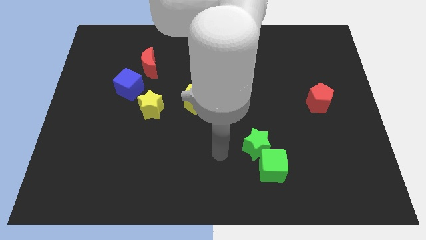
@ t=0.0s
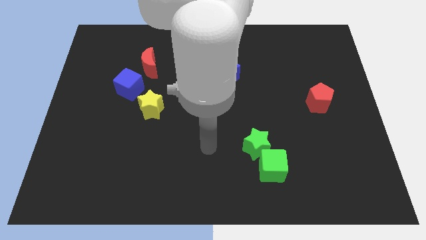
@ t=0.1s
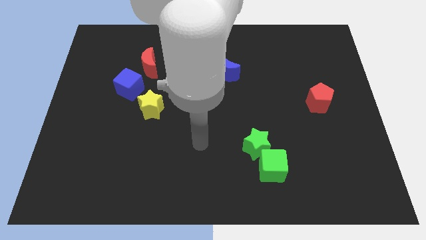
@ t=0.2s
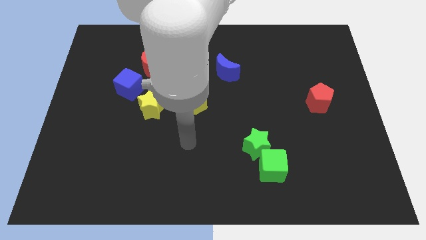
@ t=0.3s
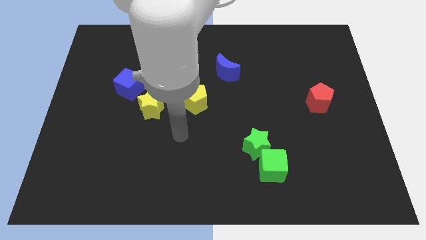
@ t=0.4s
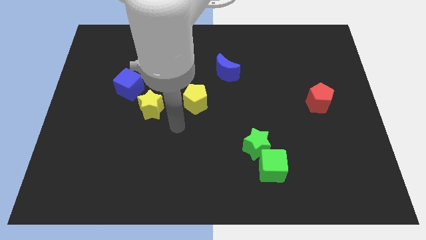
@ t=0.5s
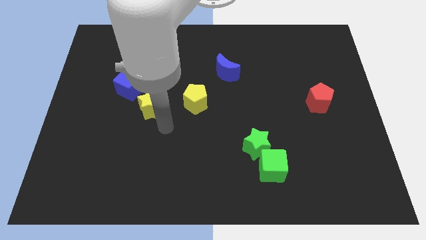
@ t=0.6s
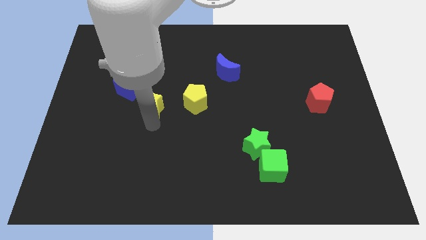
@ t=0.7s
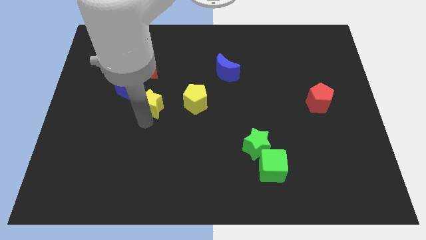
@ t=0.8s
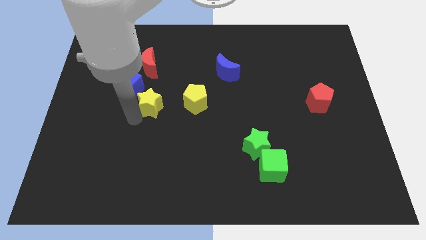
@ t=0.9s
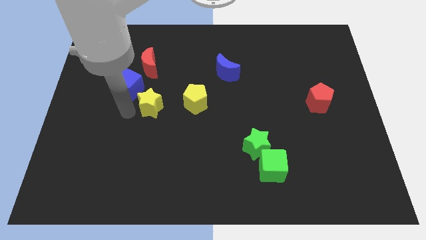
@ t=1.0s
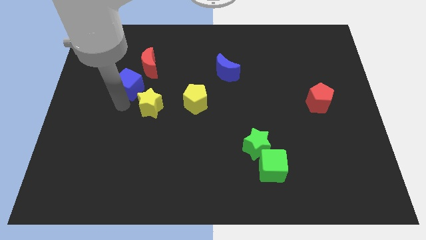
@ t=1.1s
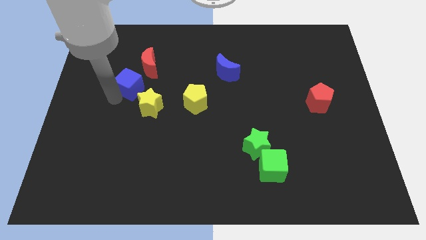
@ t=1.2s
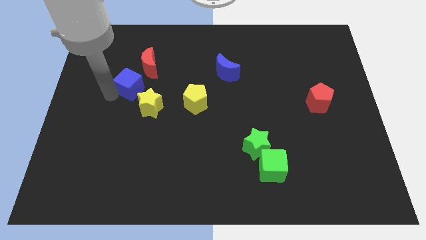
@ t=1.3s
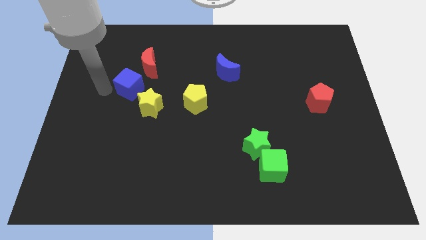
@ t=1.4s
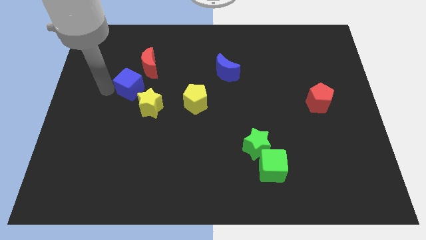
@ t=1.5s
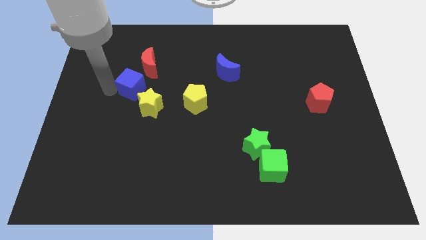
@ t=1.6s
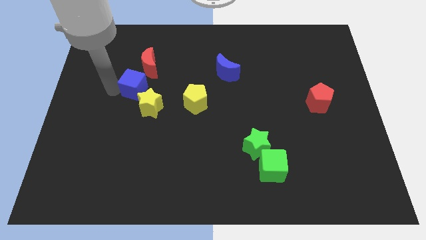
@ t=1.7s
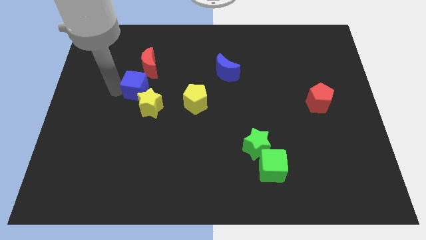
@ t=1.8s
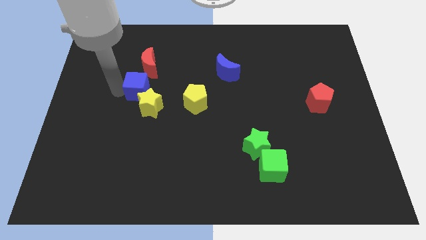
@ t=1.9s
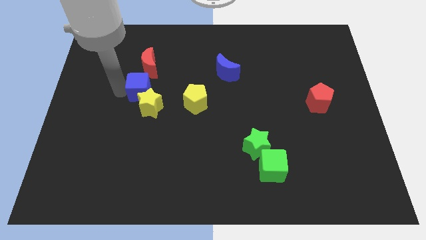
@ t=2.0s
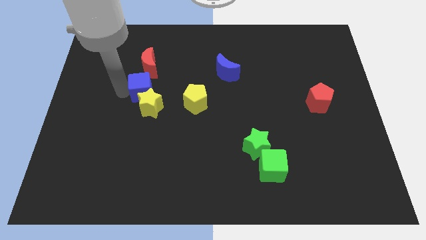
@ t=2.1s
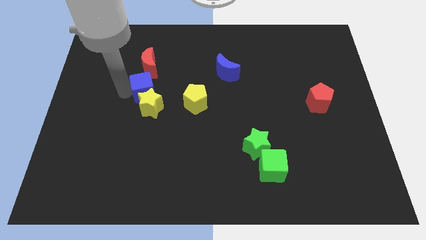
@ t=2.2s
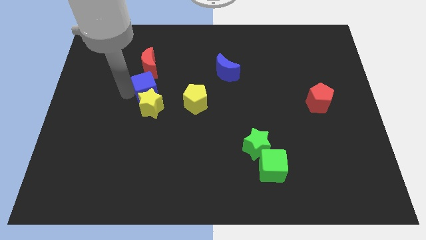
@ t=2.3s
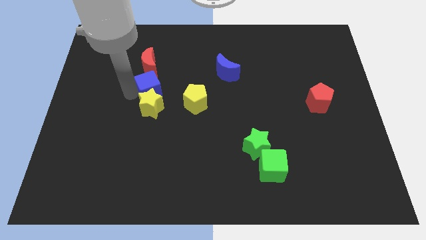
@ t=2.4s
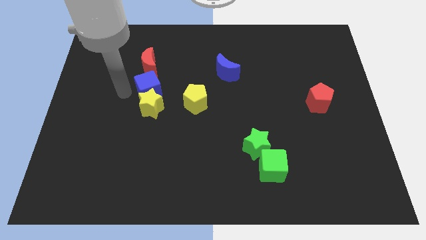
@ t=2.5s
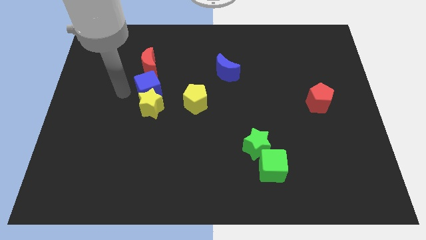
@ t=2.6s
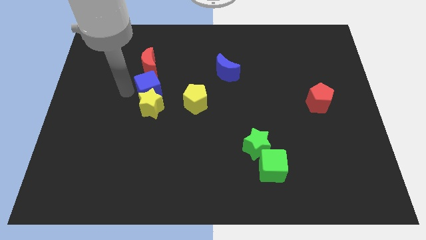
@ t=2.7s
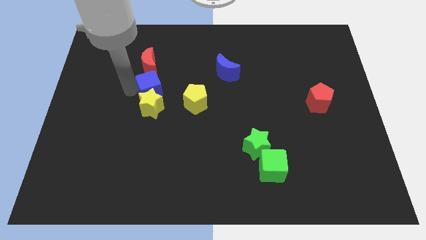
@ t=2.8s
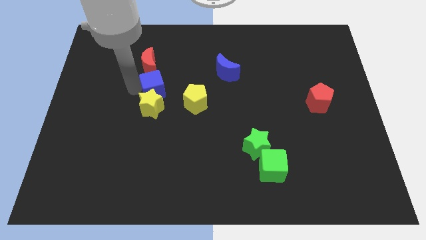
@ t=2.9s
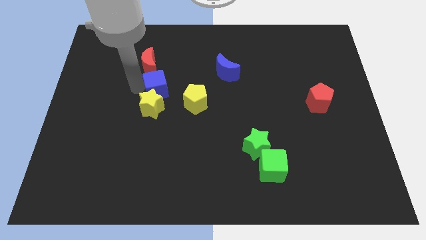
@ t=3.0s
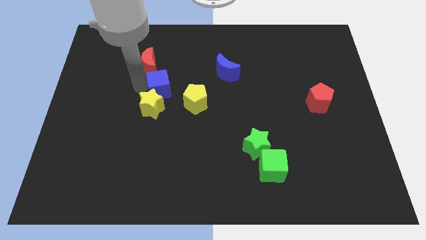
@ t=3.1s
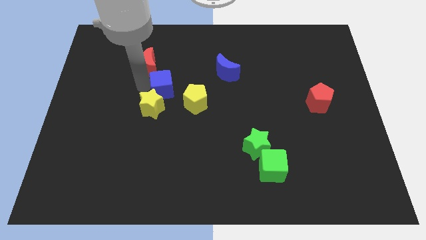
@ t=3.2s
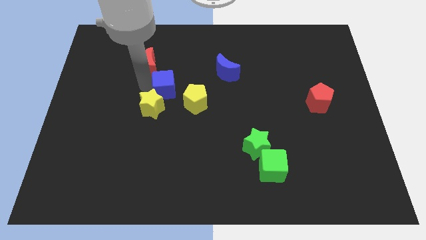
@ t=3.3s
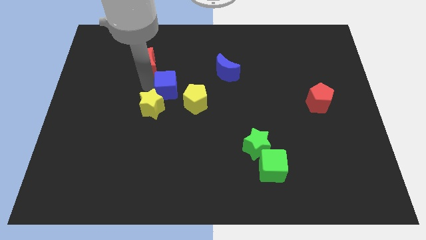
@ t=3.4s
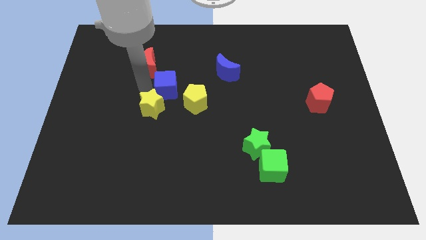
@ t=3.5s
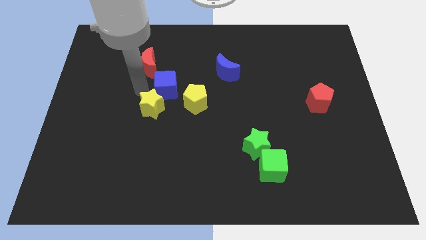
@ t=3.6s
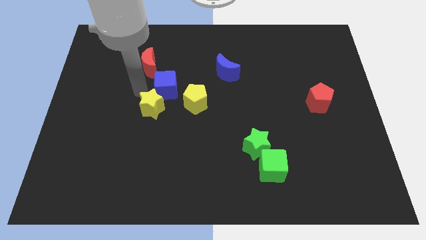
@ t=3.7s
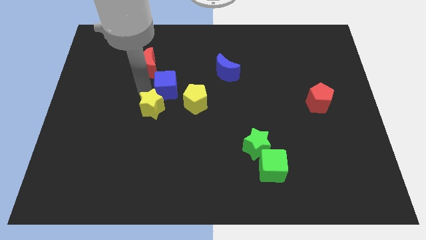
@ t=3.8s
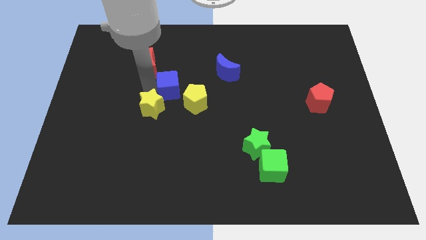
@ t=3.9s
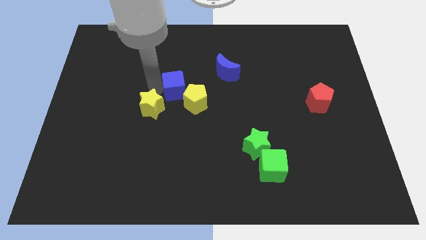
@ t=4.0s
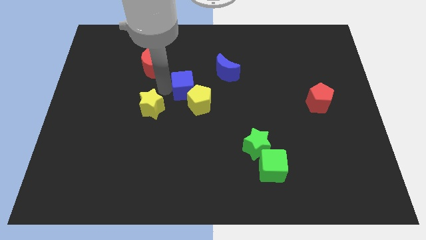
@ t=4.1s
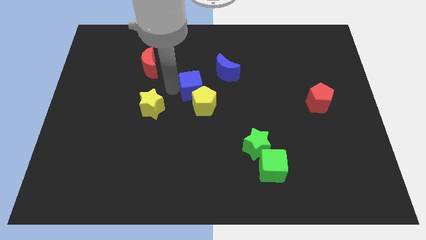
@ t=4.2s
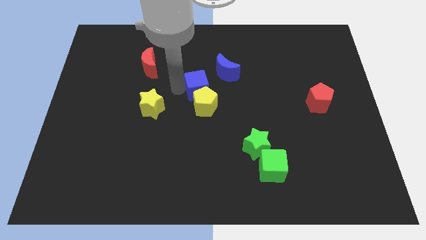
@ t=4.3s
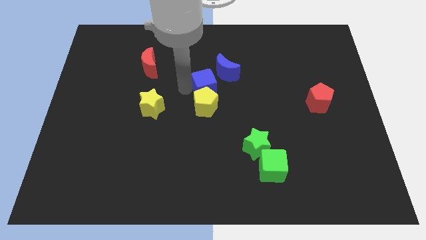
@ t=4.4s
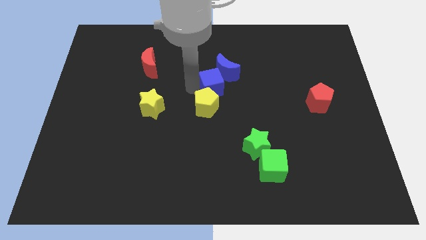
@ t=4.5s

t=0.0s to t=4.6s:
push the blue cube right

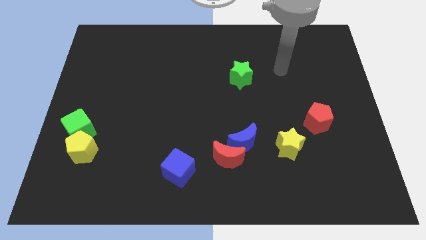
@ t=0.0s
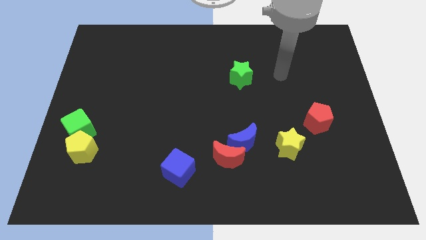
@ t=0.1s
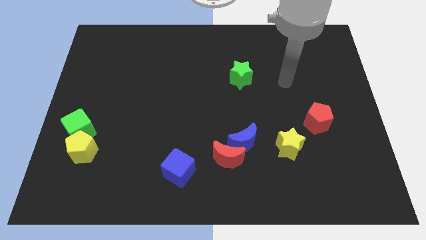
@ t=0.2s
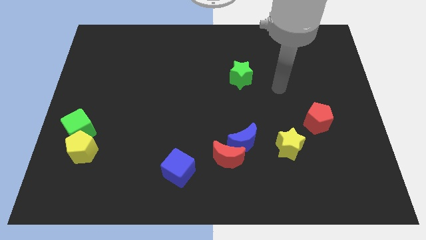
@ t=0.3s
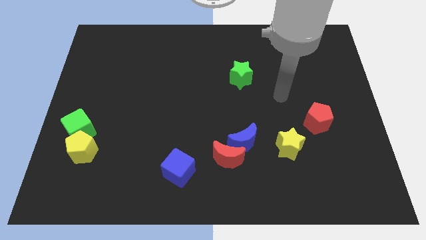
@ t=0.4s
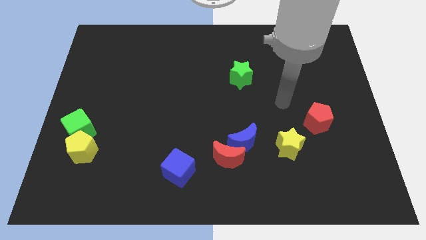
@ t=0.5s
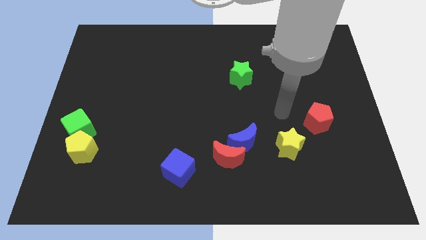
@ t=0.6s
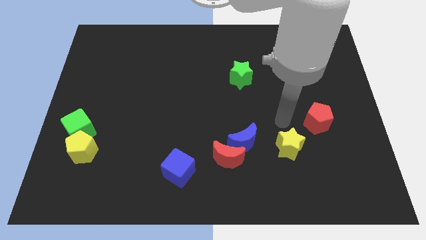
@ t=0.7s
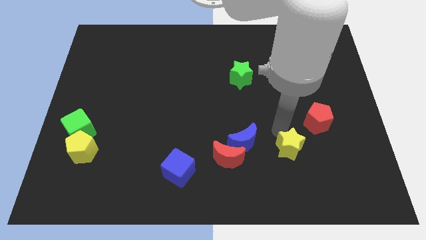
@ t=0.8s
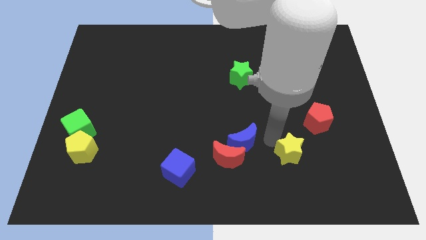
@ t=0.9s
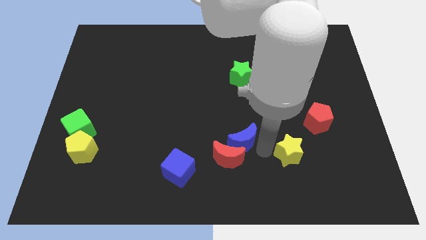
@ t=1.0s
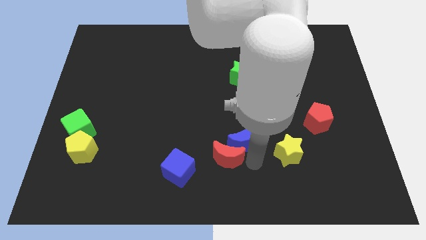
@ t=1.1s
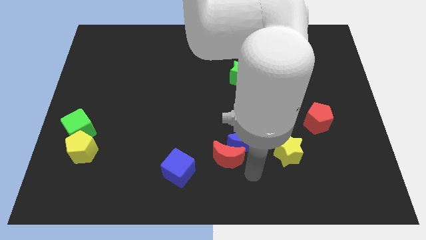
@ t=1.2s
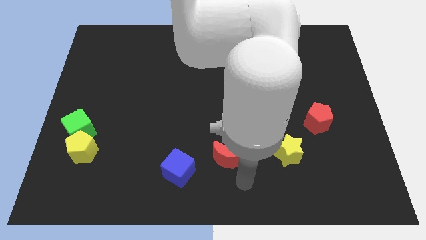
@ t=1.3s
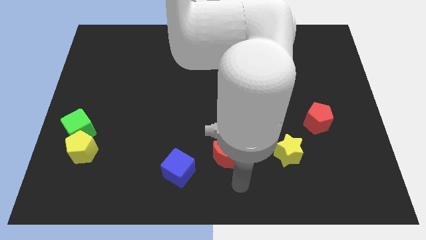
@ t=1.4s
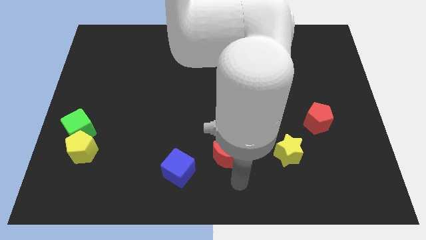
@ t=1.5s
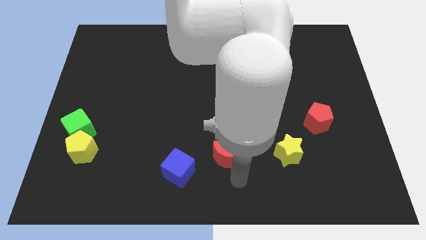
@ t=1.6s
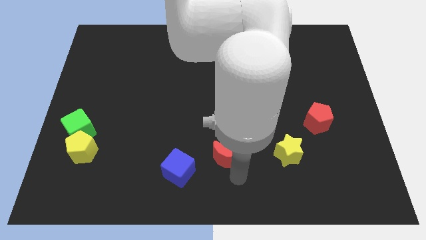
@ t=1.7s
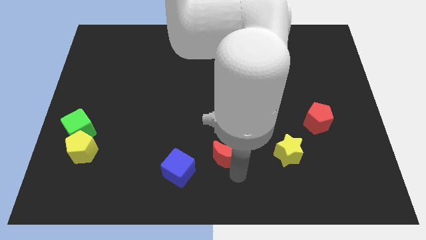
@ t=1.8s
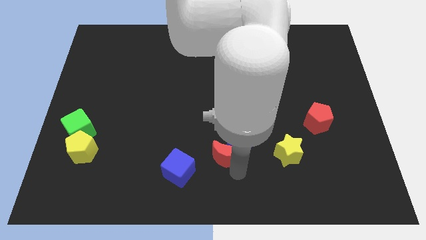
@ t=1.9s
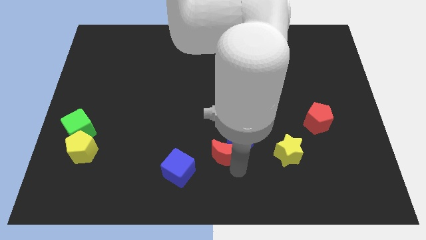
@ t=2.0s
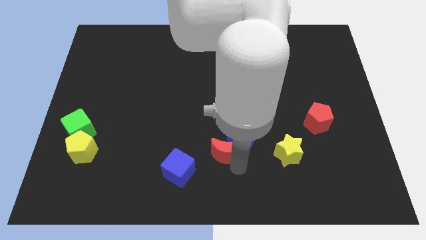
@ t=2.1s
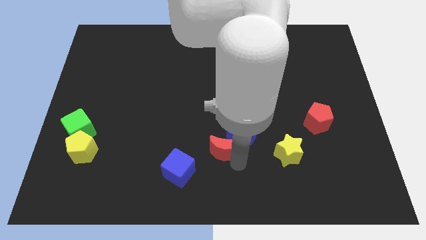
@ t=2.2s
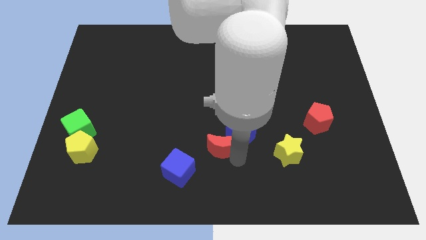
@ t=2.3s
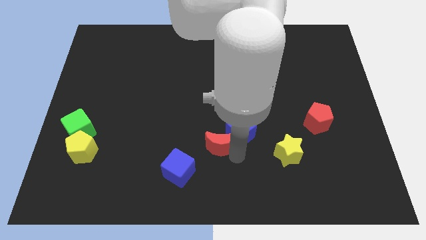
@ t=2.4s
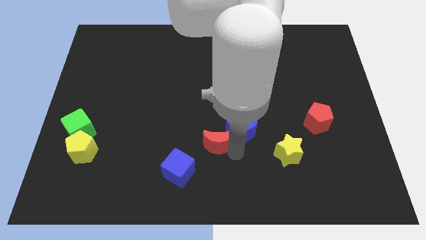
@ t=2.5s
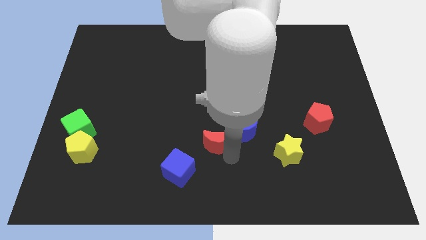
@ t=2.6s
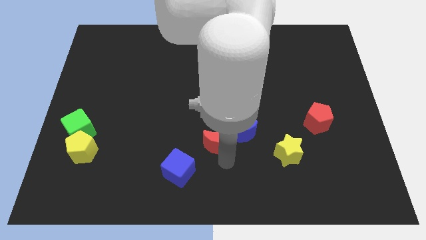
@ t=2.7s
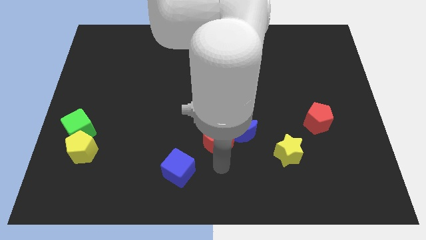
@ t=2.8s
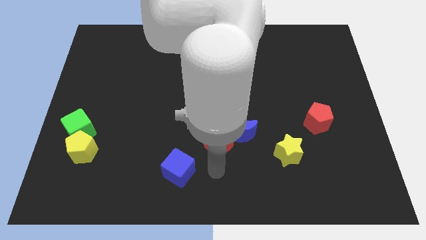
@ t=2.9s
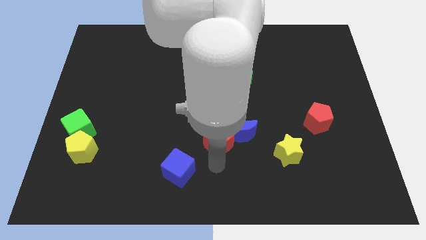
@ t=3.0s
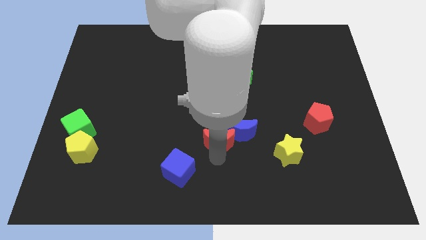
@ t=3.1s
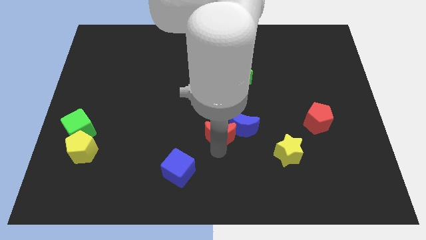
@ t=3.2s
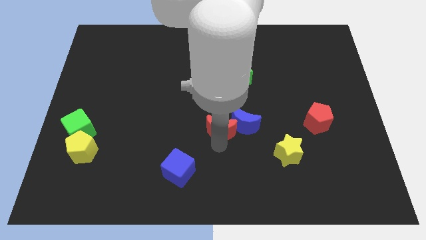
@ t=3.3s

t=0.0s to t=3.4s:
move the red moon slightly up

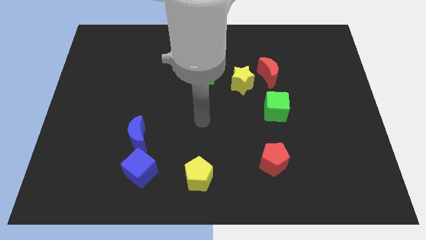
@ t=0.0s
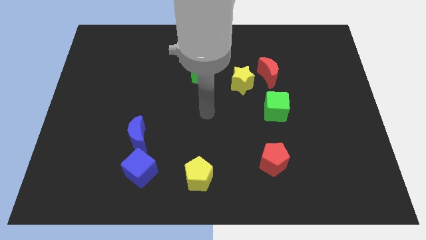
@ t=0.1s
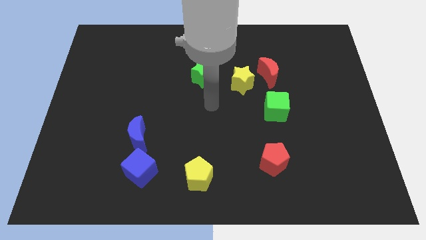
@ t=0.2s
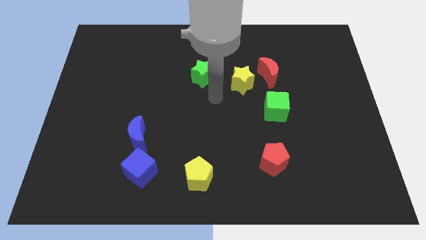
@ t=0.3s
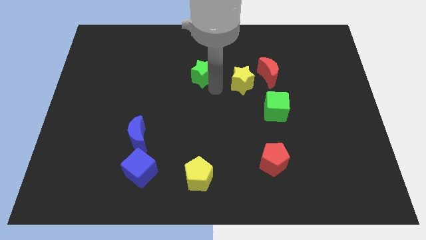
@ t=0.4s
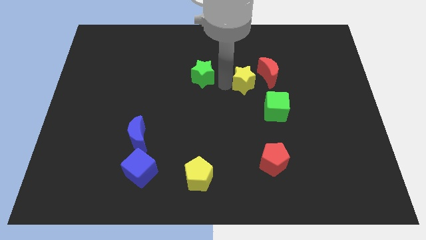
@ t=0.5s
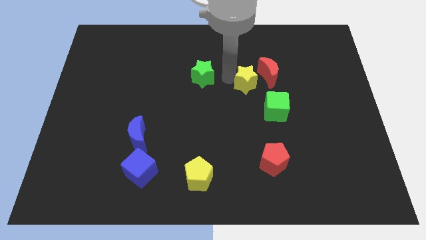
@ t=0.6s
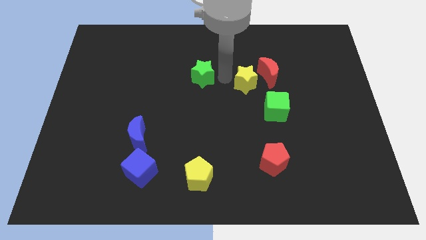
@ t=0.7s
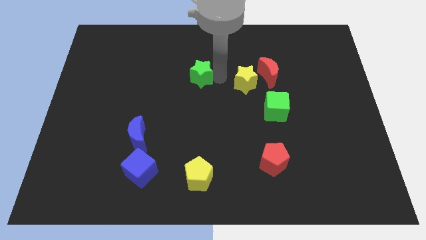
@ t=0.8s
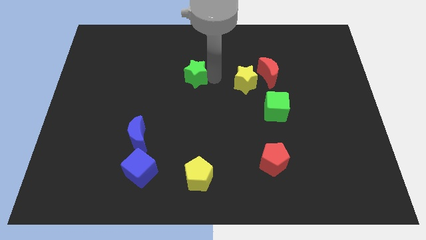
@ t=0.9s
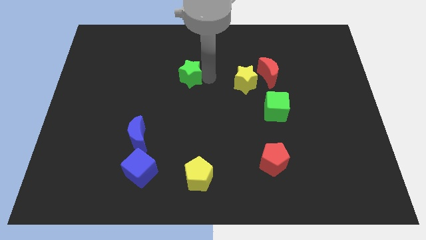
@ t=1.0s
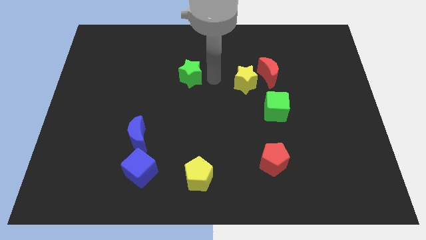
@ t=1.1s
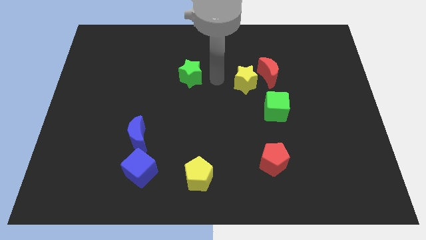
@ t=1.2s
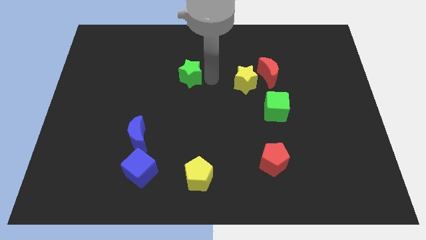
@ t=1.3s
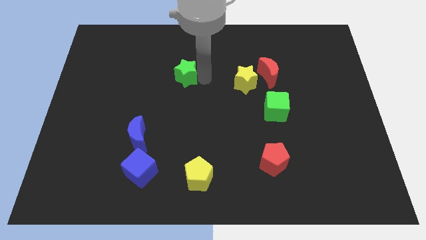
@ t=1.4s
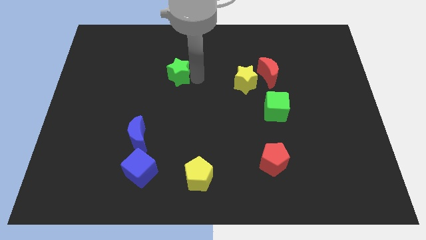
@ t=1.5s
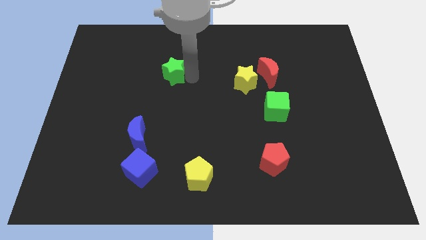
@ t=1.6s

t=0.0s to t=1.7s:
push the green star to the left a bit
